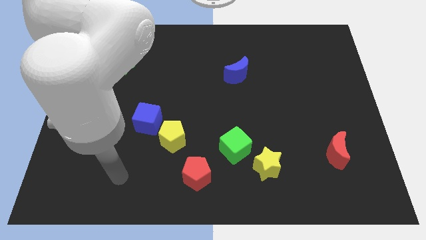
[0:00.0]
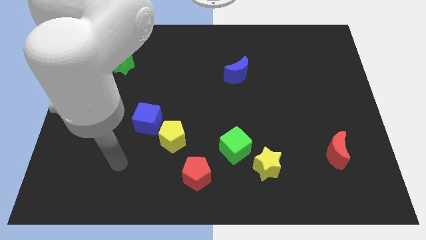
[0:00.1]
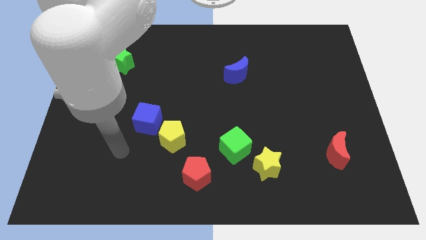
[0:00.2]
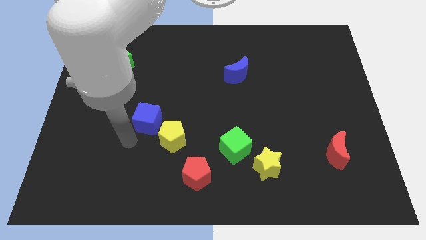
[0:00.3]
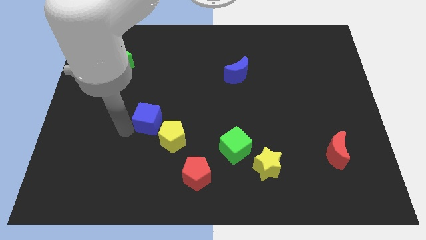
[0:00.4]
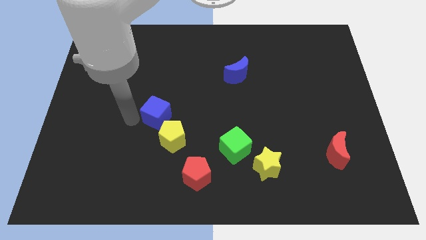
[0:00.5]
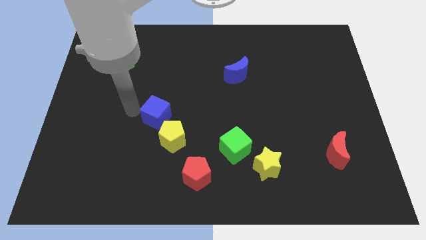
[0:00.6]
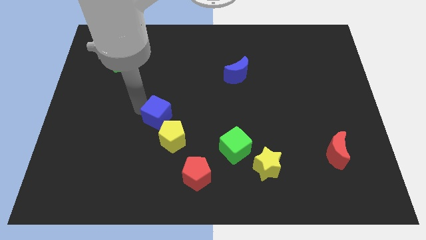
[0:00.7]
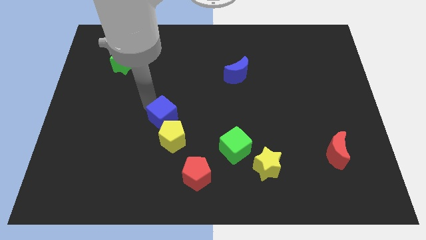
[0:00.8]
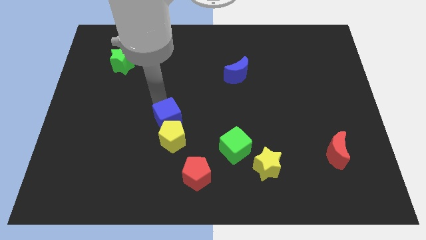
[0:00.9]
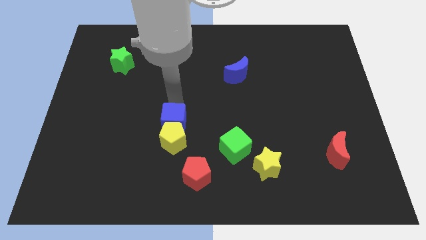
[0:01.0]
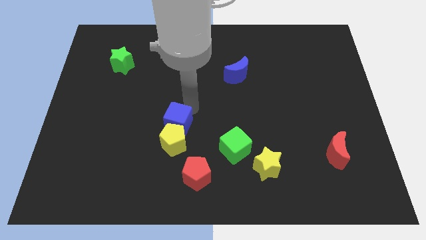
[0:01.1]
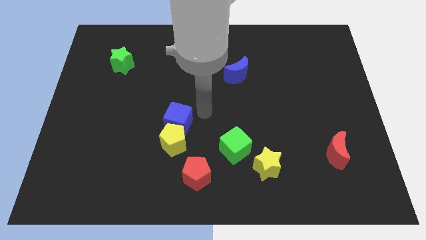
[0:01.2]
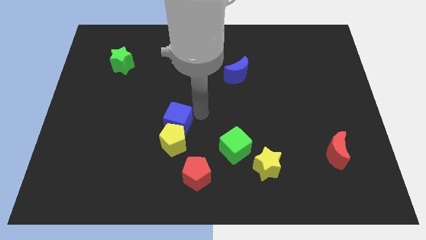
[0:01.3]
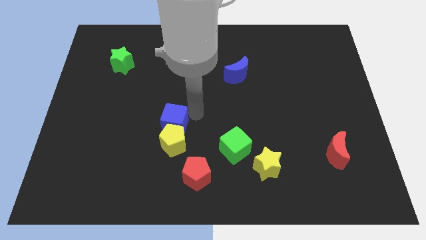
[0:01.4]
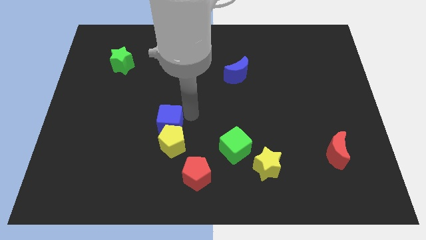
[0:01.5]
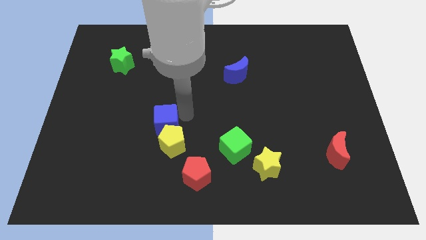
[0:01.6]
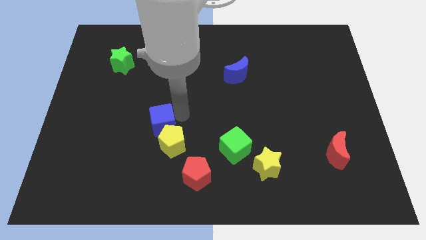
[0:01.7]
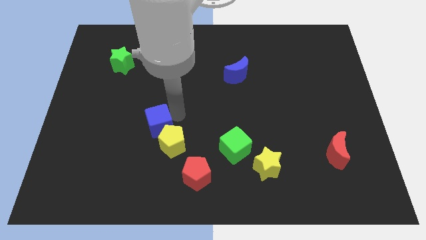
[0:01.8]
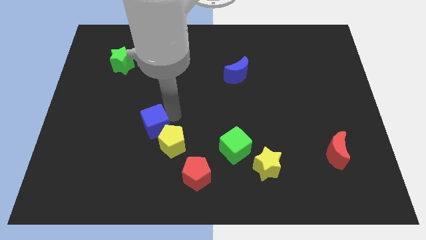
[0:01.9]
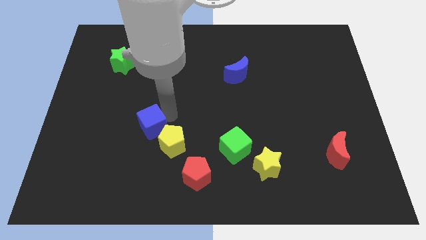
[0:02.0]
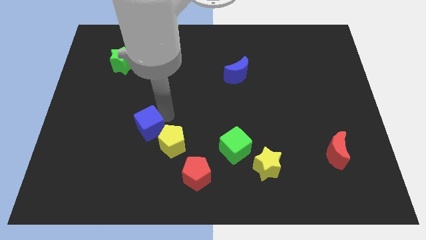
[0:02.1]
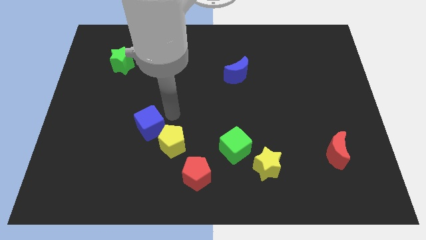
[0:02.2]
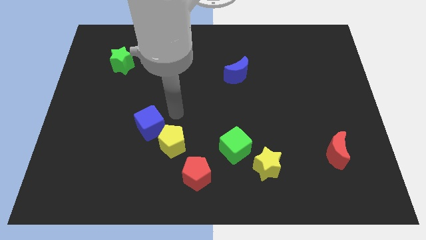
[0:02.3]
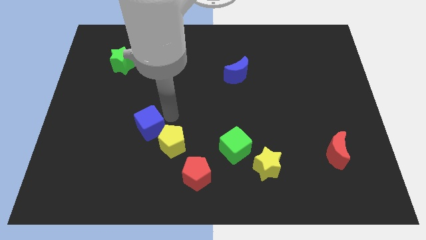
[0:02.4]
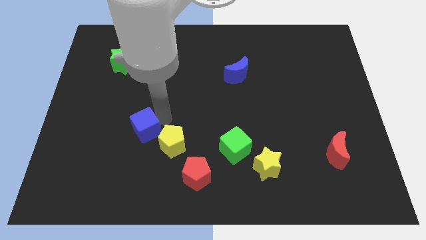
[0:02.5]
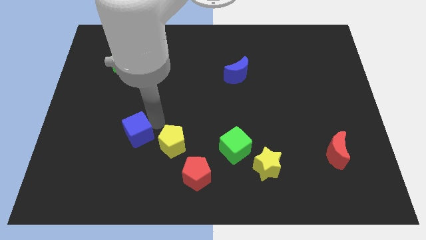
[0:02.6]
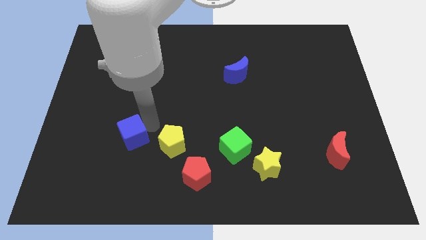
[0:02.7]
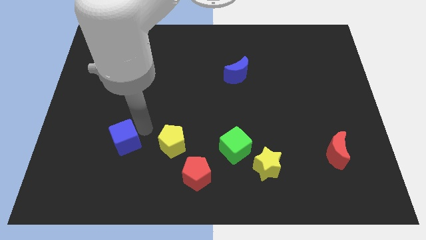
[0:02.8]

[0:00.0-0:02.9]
slide the blue cube down and then left a little bit

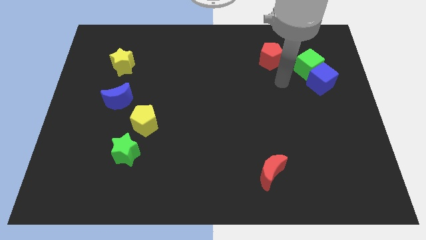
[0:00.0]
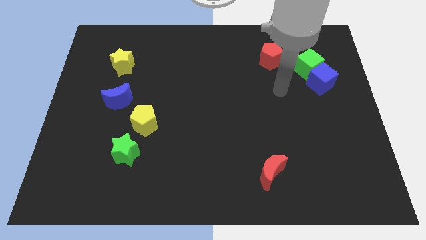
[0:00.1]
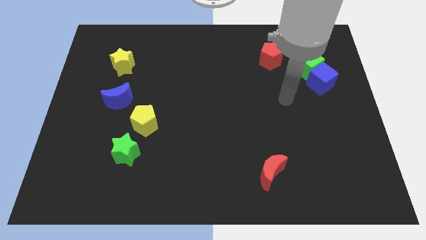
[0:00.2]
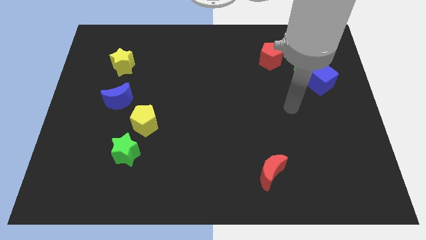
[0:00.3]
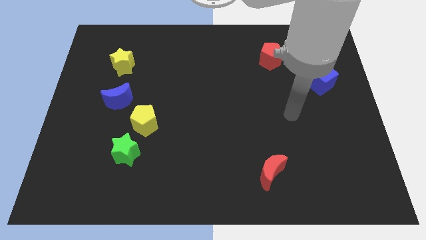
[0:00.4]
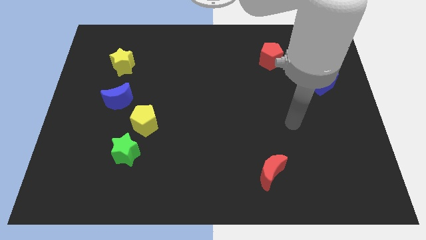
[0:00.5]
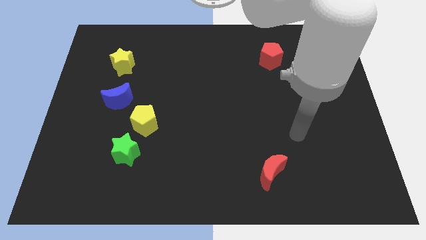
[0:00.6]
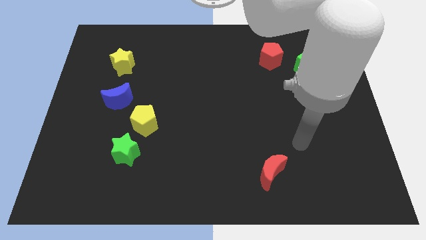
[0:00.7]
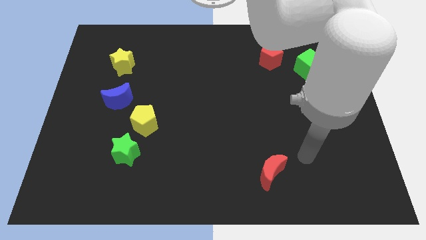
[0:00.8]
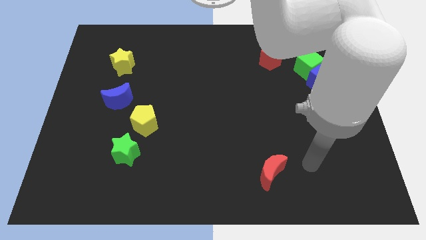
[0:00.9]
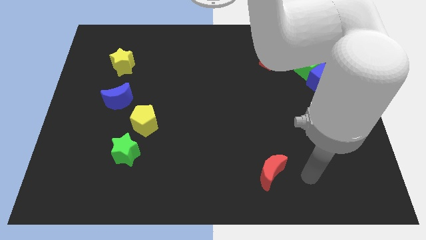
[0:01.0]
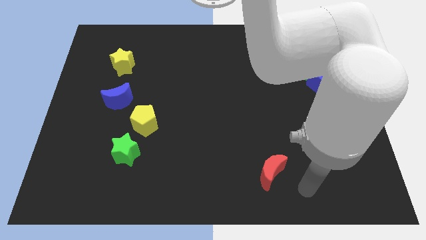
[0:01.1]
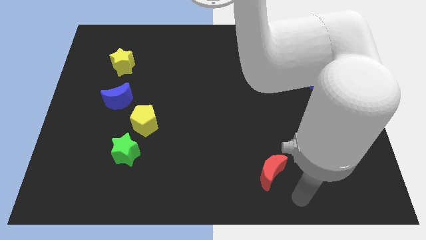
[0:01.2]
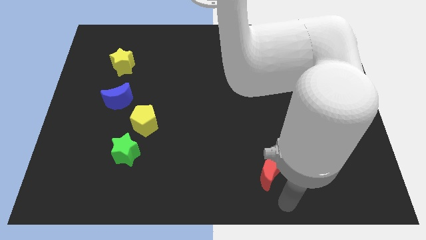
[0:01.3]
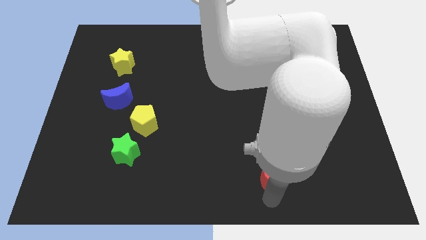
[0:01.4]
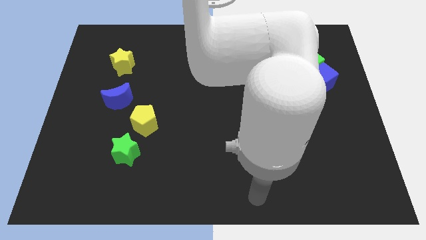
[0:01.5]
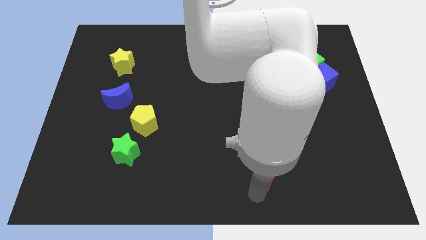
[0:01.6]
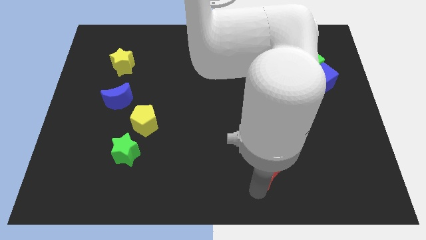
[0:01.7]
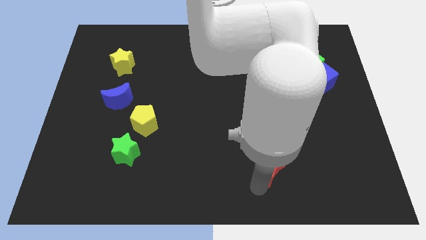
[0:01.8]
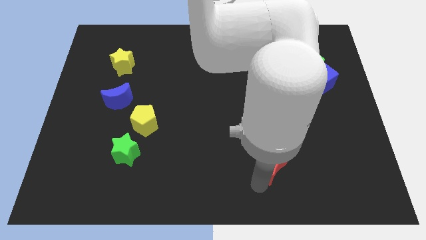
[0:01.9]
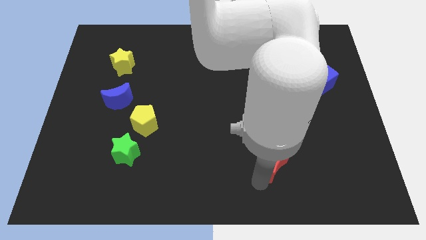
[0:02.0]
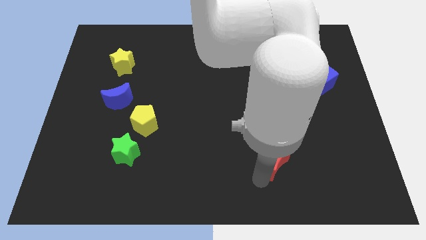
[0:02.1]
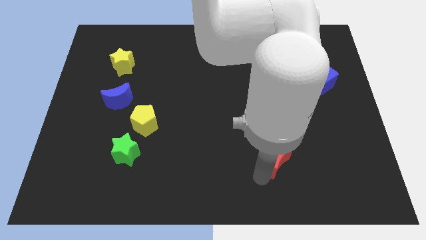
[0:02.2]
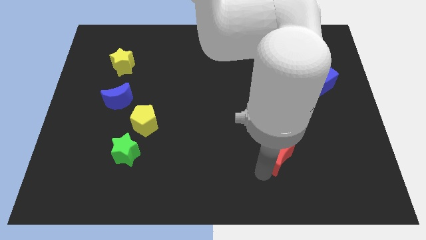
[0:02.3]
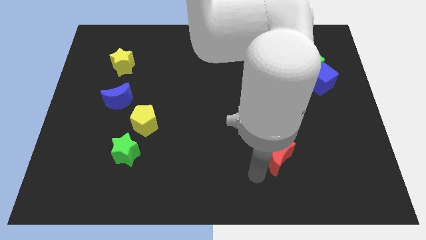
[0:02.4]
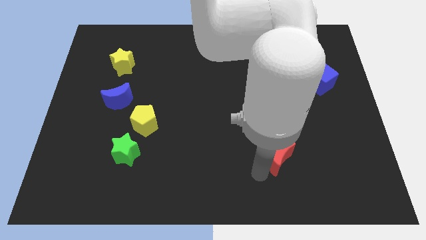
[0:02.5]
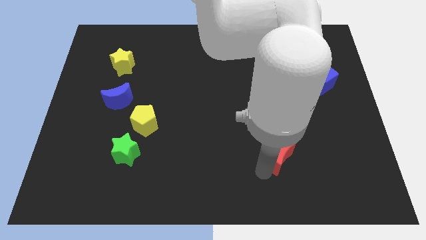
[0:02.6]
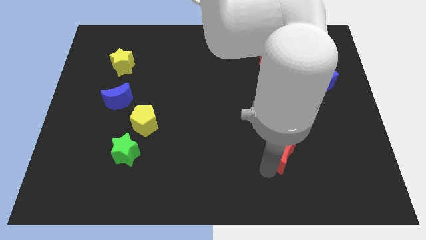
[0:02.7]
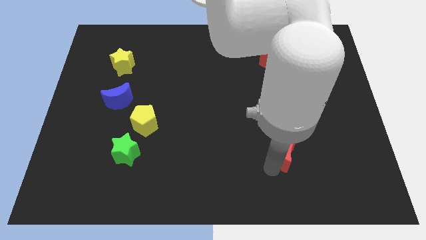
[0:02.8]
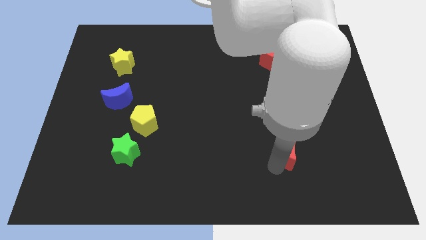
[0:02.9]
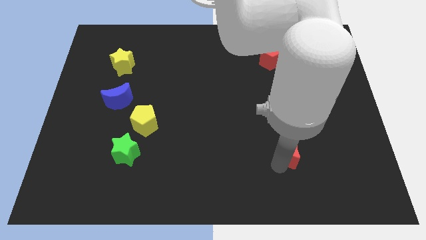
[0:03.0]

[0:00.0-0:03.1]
move the red moon a little bit up and then to the right

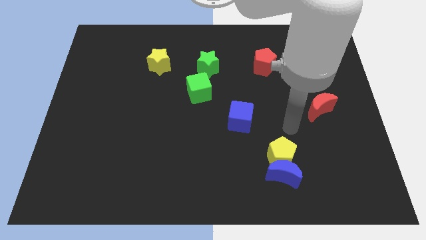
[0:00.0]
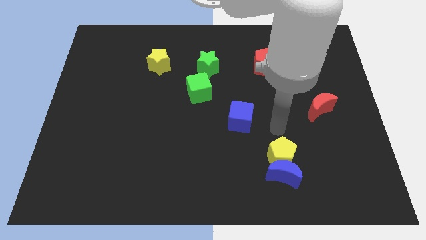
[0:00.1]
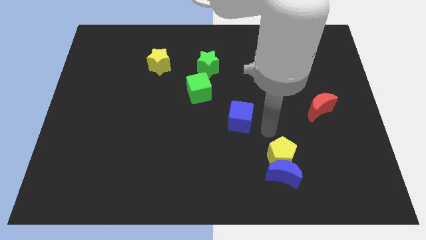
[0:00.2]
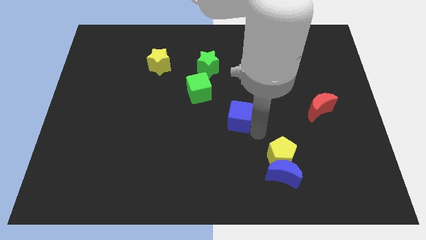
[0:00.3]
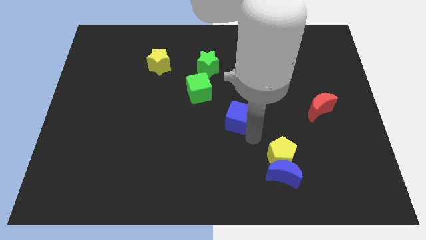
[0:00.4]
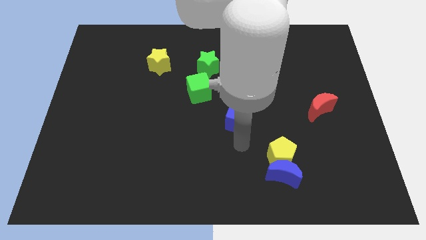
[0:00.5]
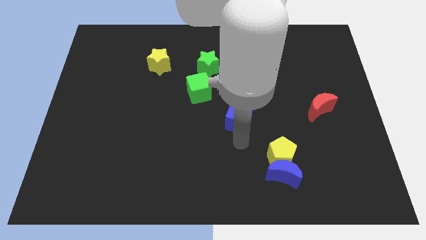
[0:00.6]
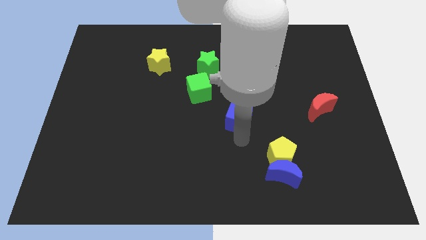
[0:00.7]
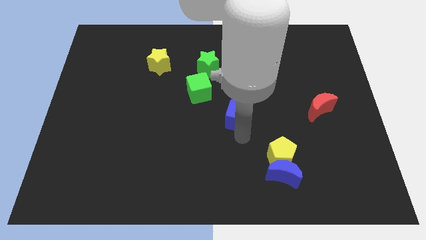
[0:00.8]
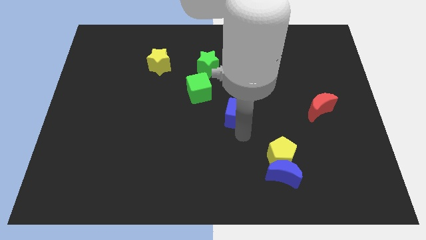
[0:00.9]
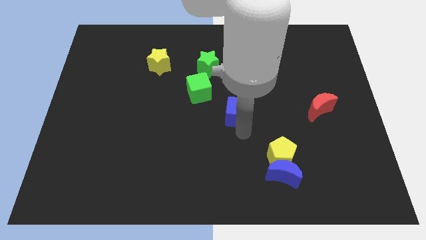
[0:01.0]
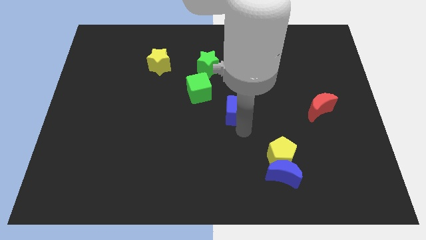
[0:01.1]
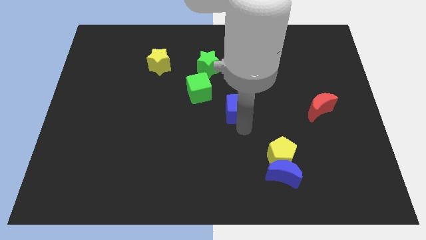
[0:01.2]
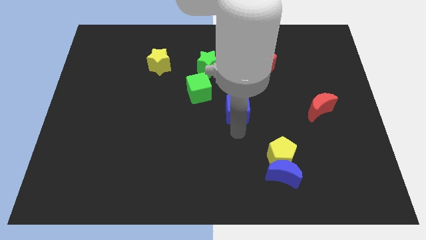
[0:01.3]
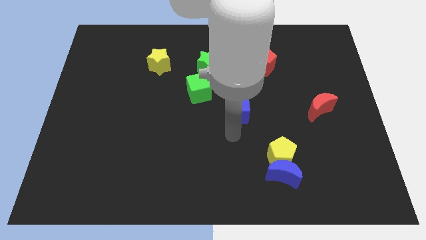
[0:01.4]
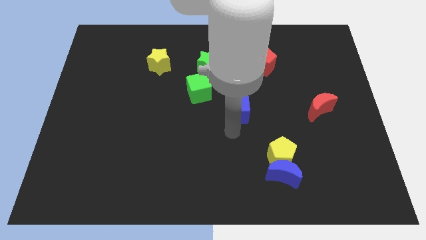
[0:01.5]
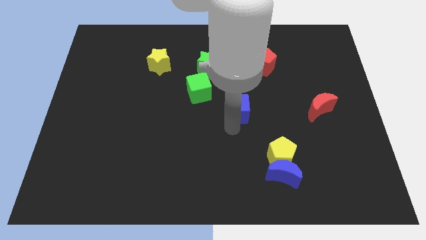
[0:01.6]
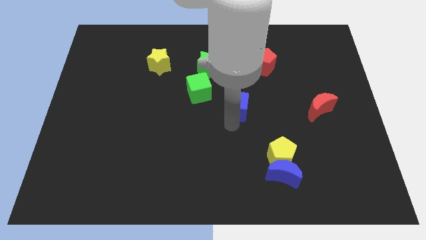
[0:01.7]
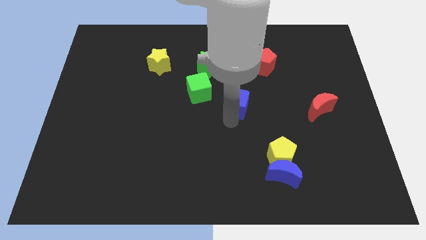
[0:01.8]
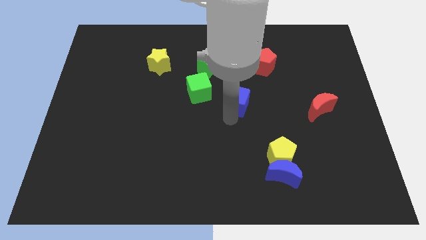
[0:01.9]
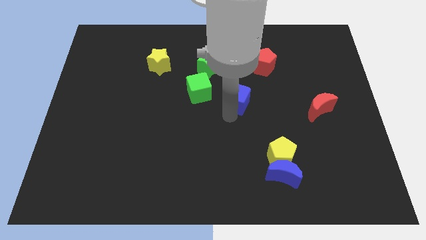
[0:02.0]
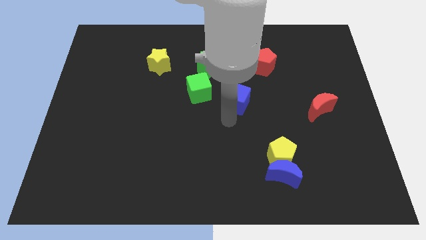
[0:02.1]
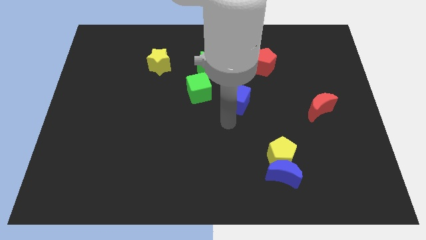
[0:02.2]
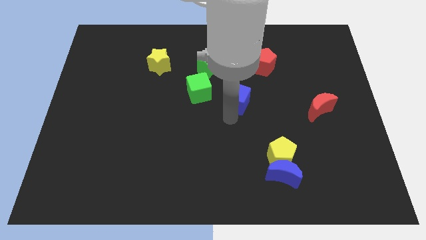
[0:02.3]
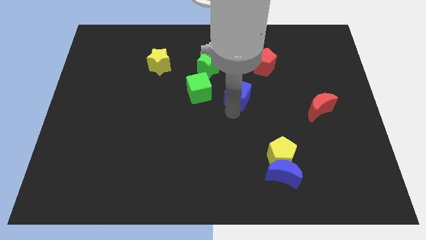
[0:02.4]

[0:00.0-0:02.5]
slightly move the blue cube upwards
